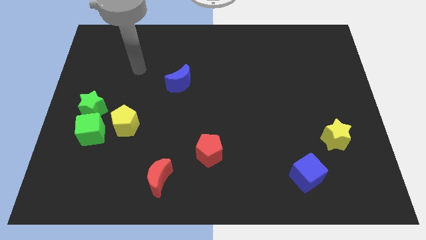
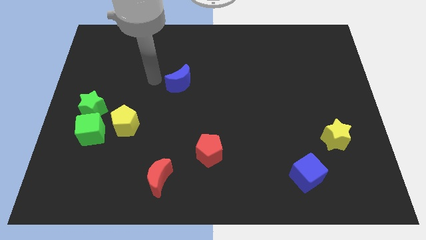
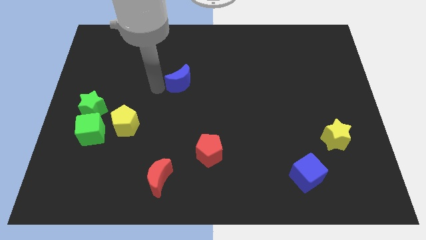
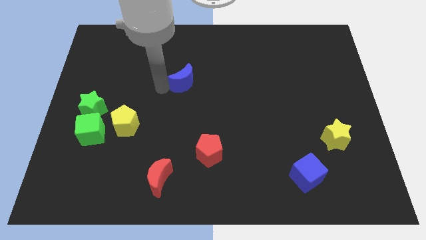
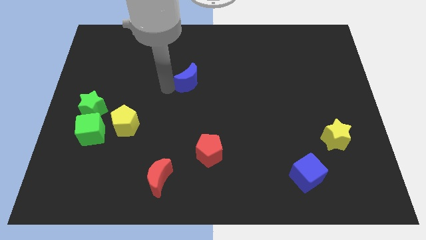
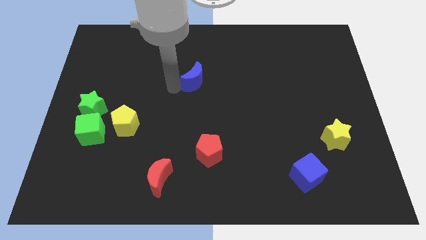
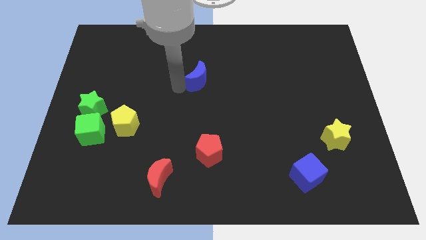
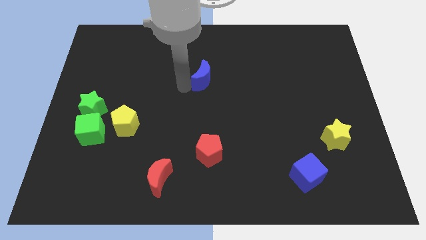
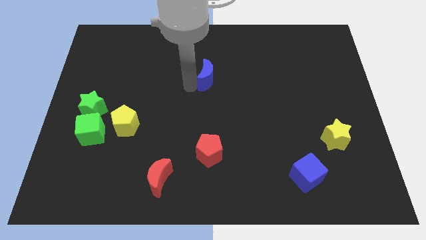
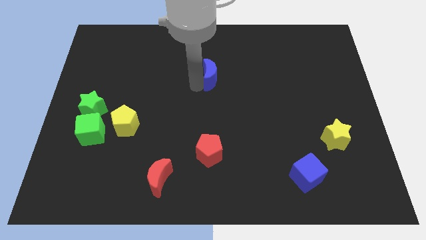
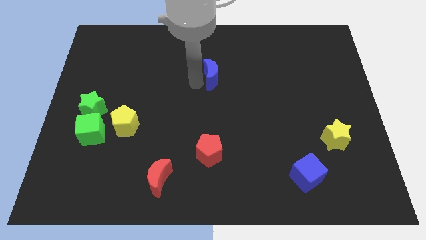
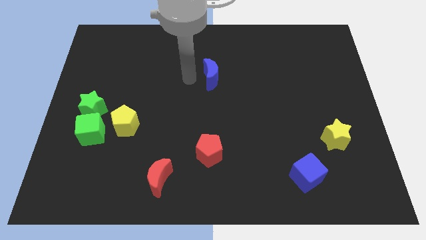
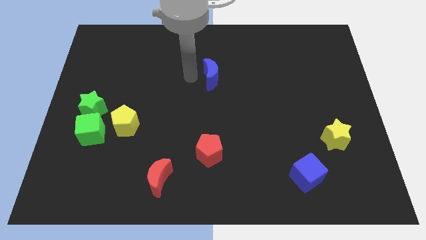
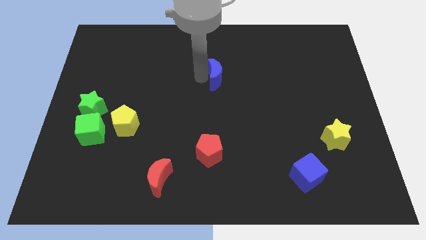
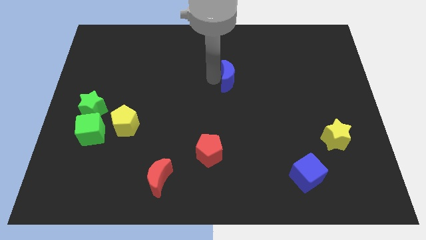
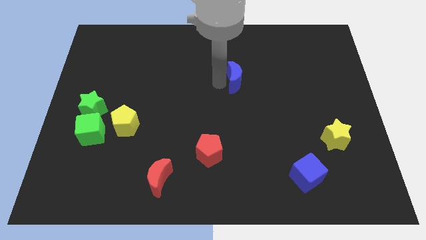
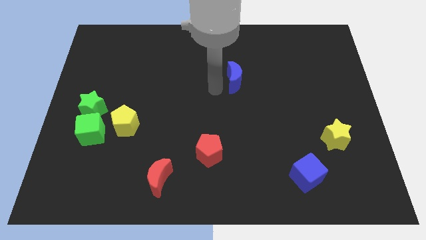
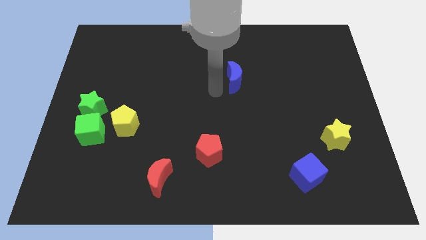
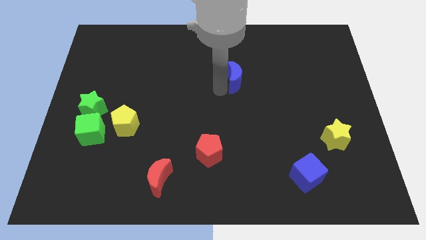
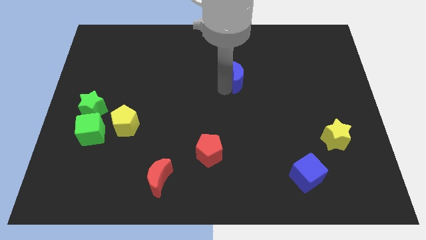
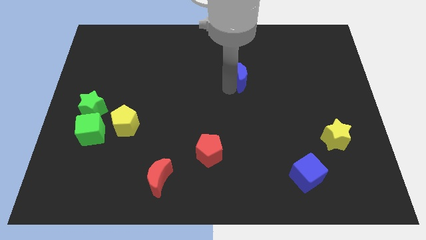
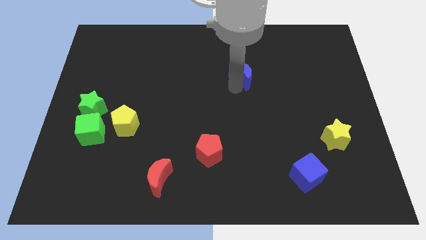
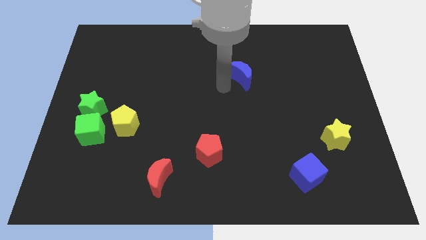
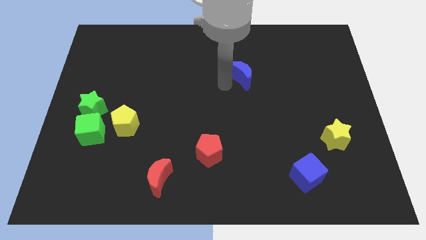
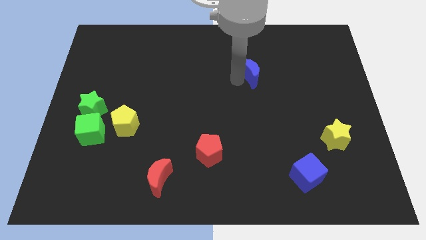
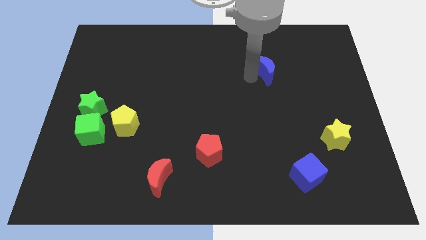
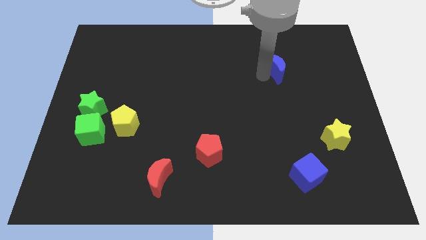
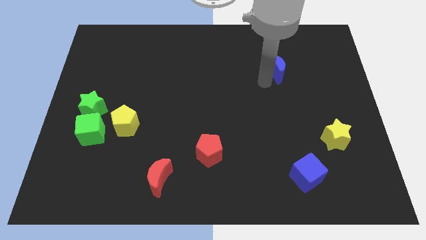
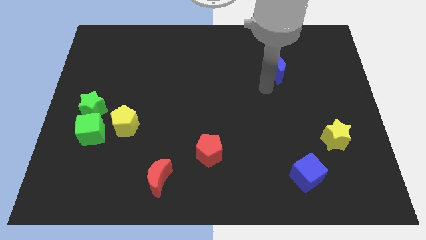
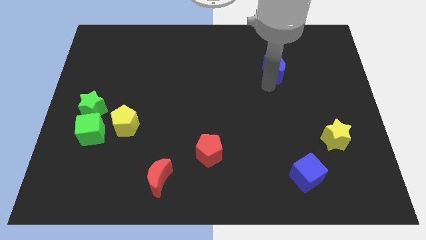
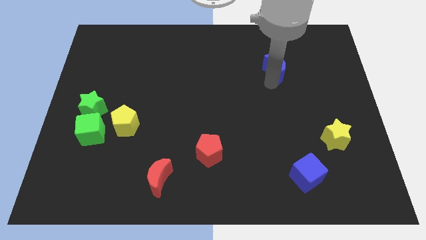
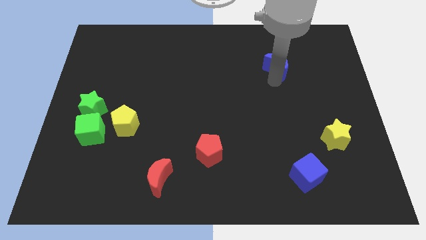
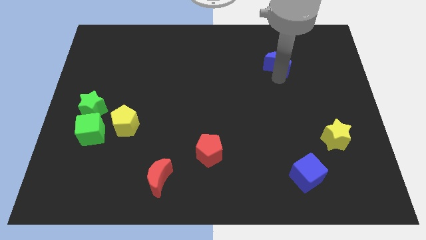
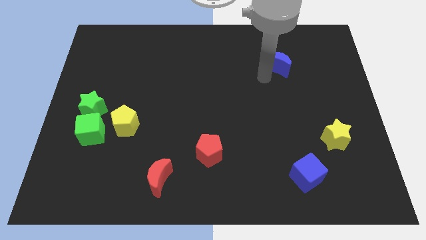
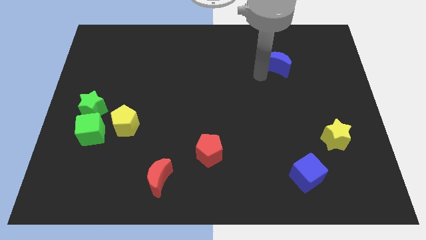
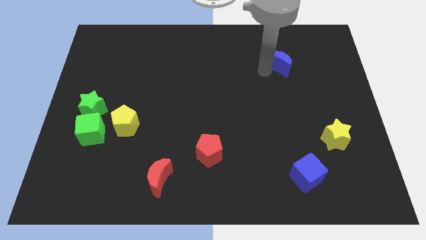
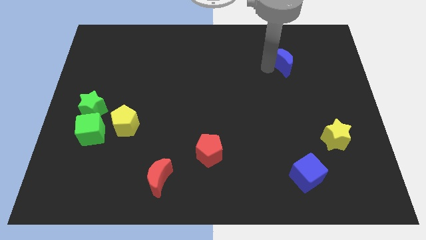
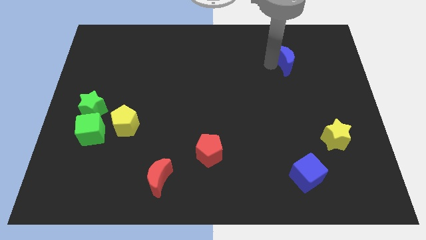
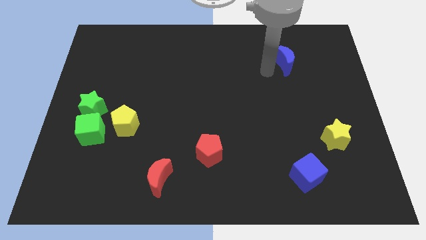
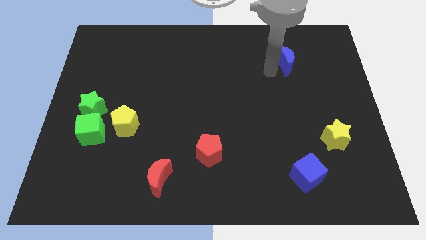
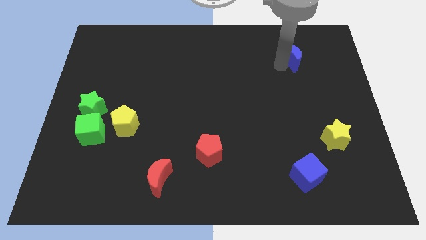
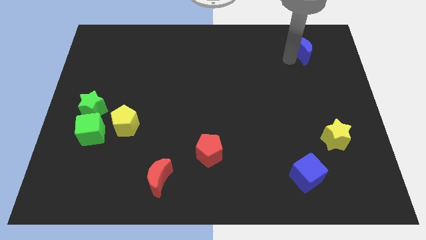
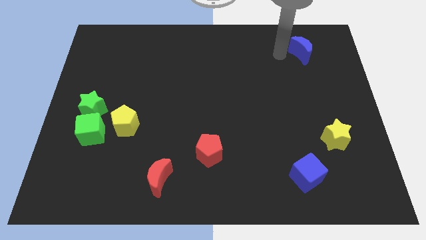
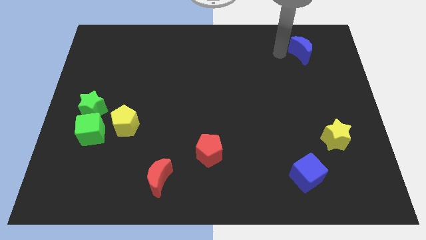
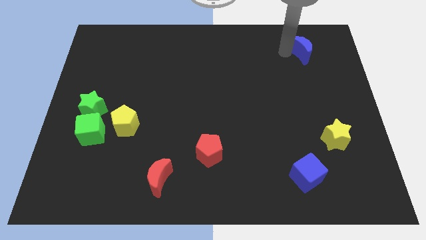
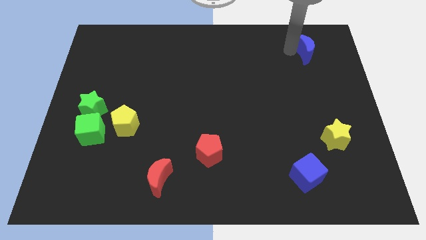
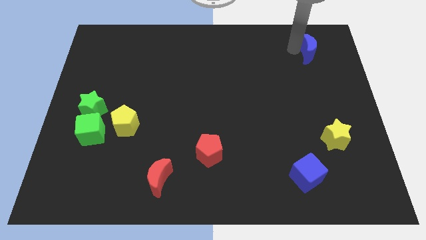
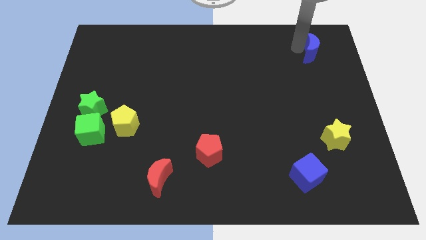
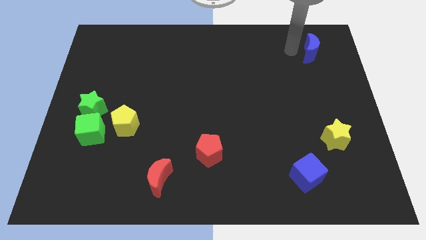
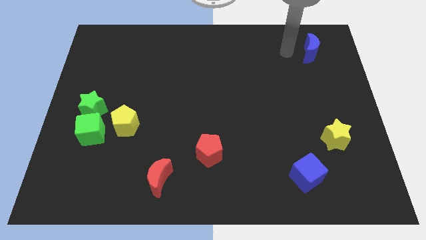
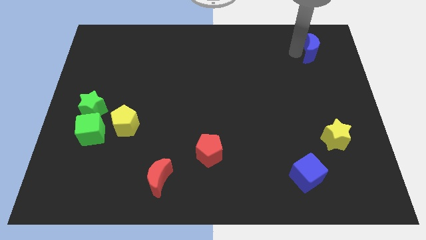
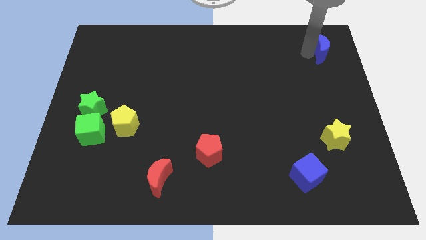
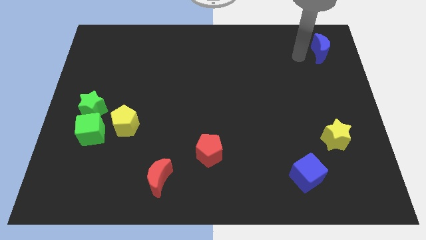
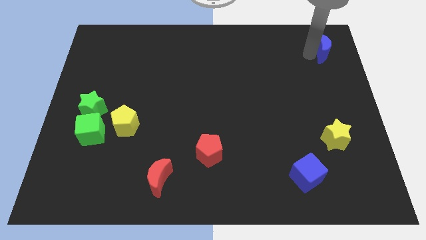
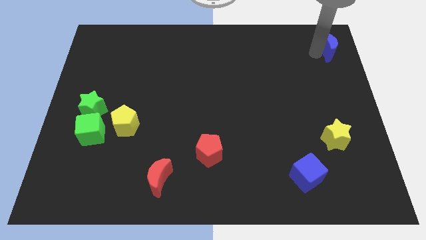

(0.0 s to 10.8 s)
slide the blue moon to the upper right corner
